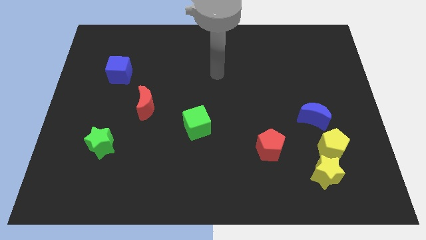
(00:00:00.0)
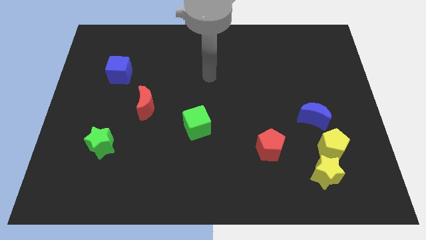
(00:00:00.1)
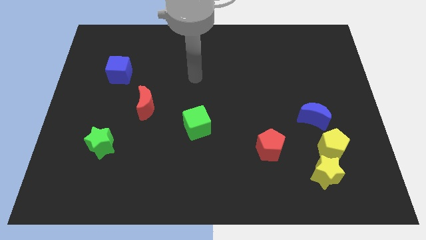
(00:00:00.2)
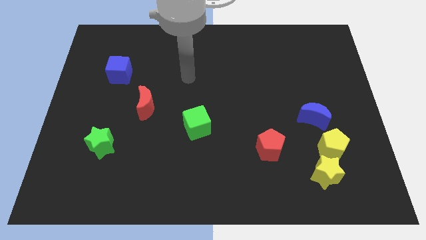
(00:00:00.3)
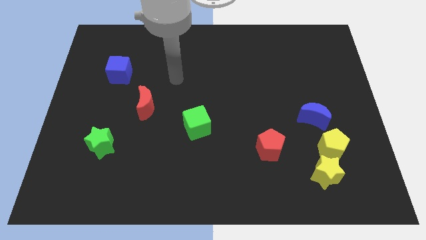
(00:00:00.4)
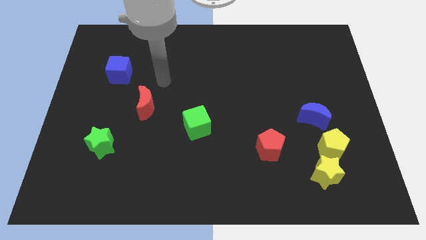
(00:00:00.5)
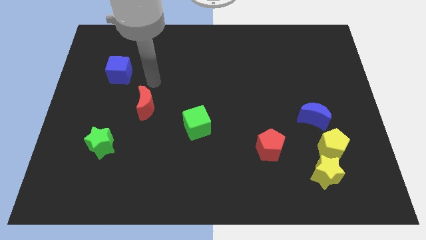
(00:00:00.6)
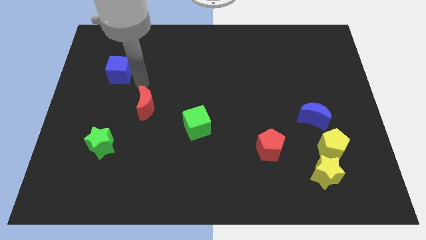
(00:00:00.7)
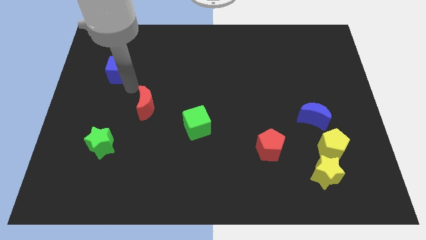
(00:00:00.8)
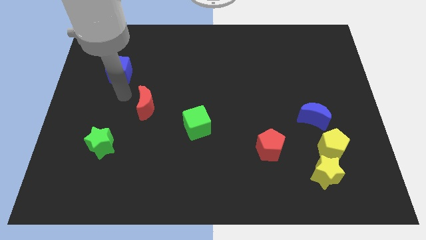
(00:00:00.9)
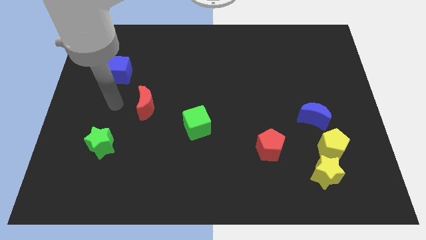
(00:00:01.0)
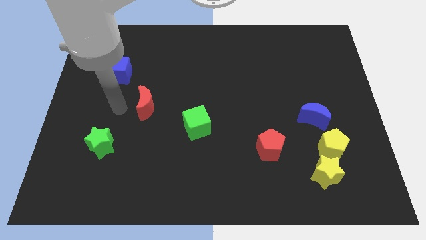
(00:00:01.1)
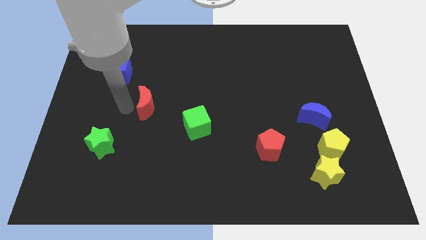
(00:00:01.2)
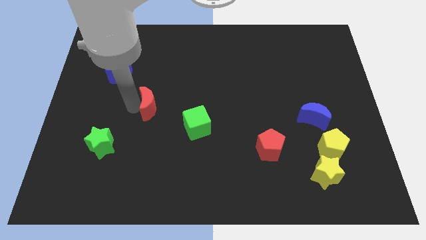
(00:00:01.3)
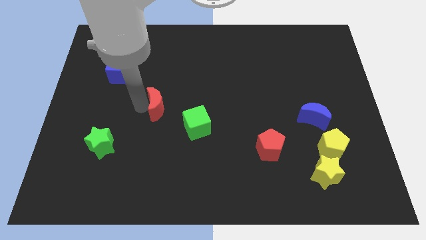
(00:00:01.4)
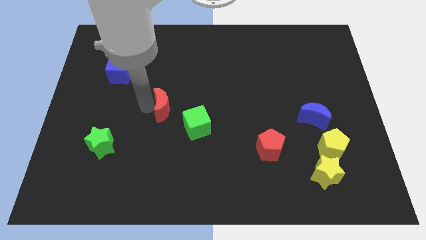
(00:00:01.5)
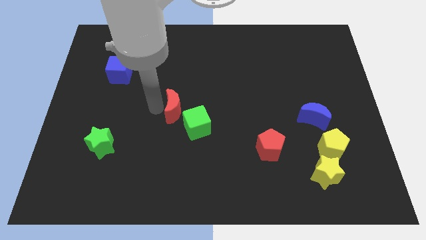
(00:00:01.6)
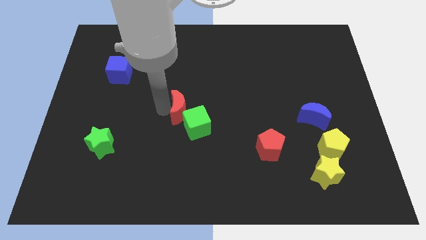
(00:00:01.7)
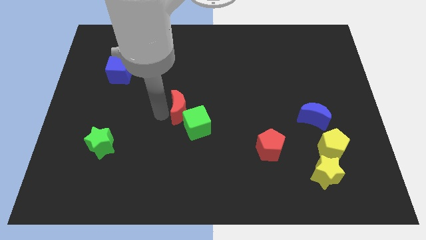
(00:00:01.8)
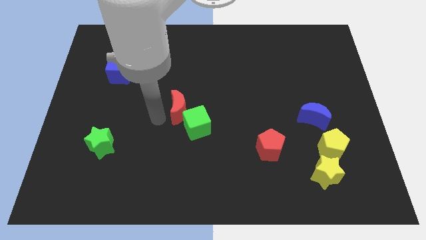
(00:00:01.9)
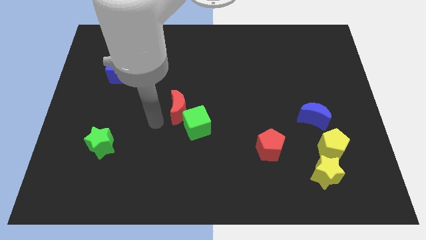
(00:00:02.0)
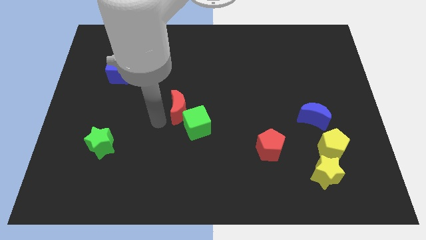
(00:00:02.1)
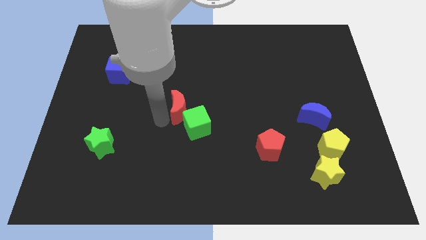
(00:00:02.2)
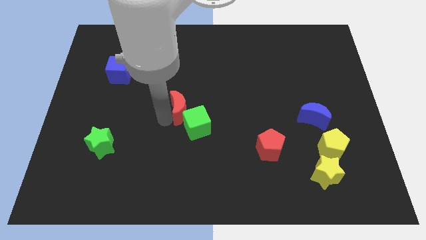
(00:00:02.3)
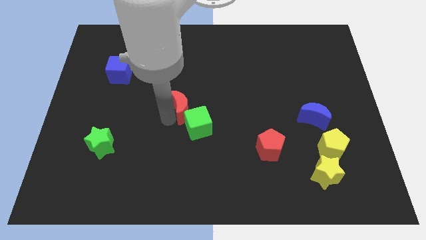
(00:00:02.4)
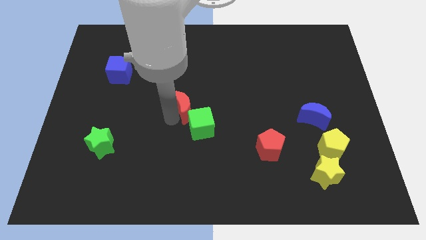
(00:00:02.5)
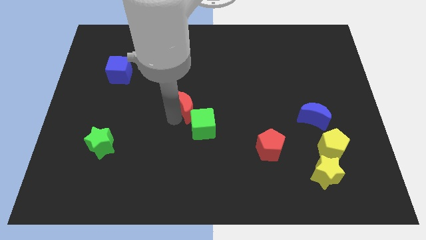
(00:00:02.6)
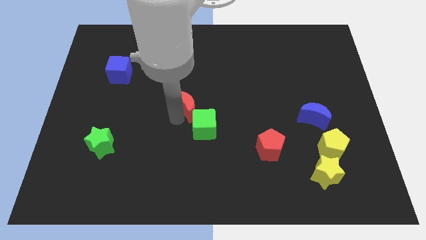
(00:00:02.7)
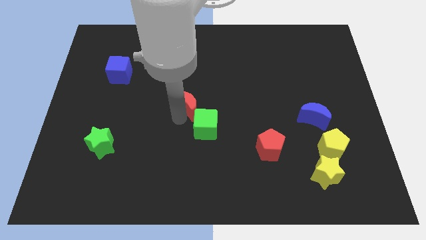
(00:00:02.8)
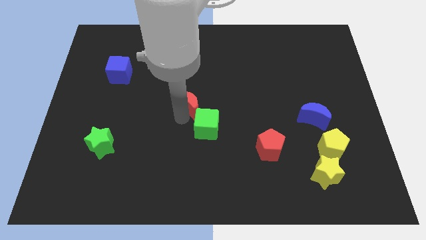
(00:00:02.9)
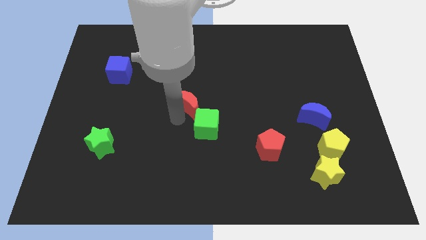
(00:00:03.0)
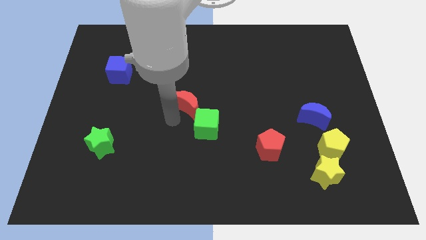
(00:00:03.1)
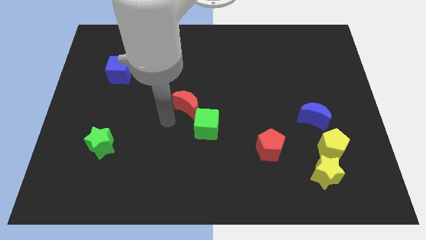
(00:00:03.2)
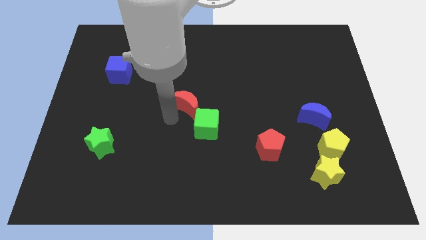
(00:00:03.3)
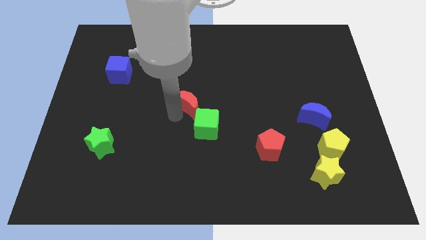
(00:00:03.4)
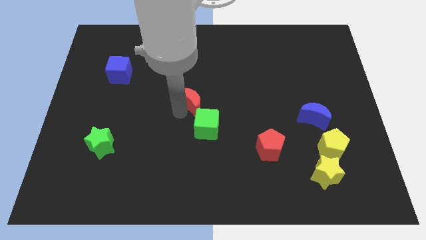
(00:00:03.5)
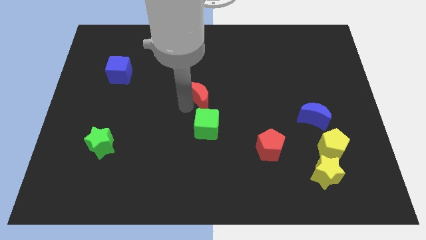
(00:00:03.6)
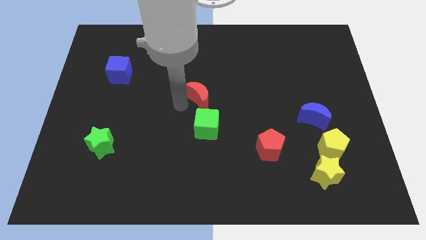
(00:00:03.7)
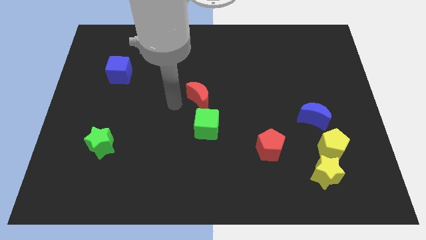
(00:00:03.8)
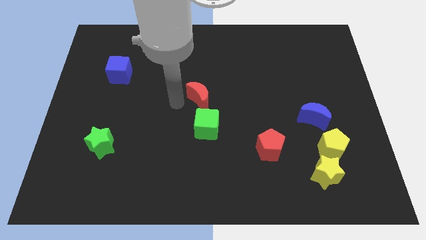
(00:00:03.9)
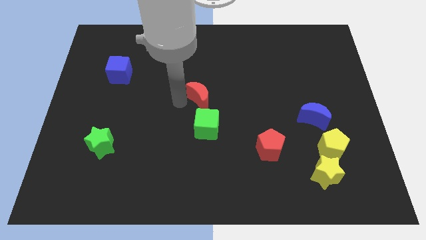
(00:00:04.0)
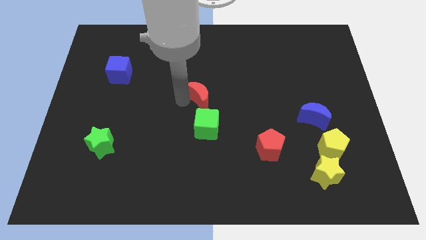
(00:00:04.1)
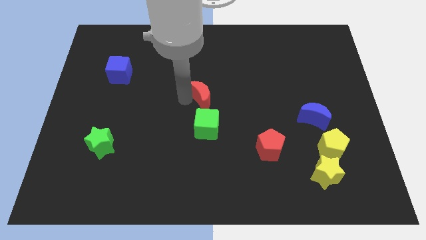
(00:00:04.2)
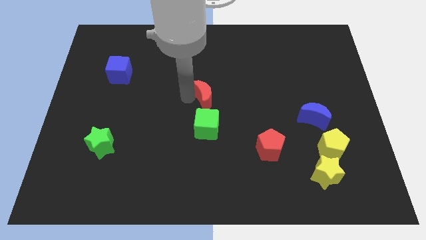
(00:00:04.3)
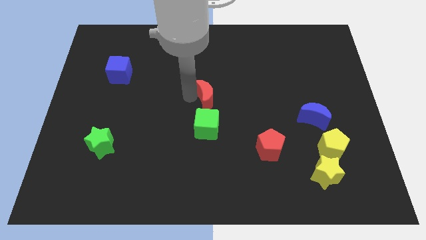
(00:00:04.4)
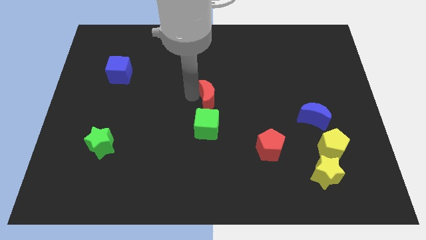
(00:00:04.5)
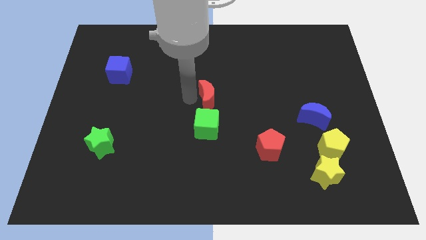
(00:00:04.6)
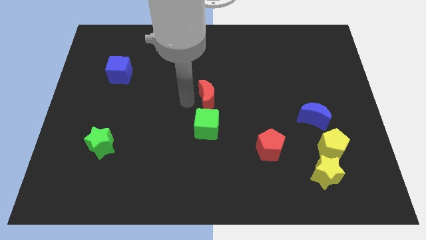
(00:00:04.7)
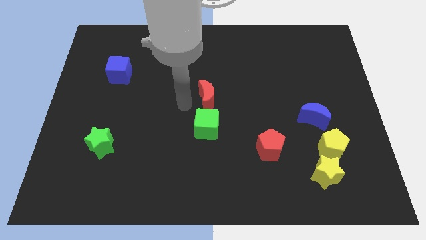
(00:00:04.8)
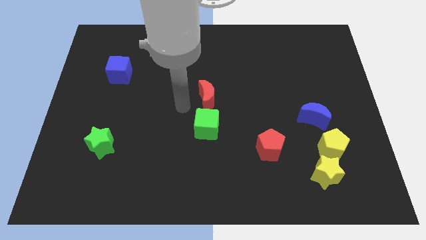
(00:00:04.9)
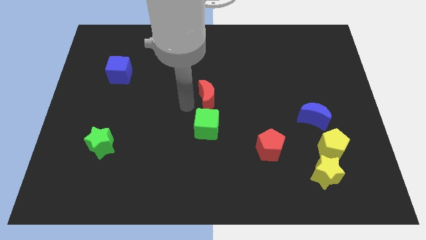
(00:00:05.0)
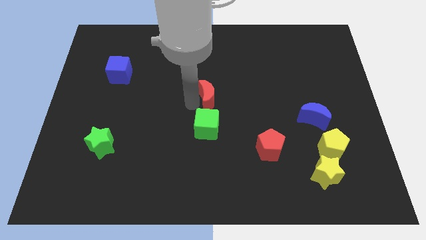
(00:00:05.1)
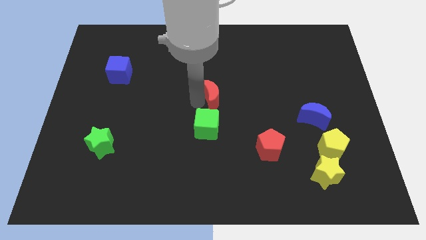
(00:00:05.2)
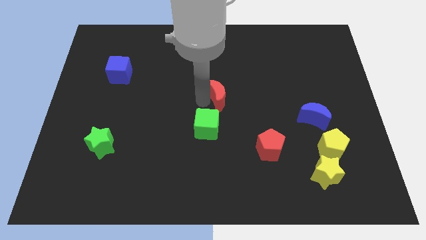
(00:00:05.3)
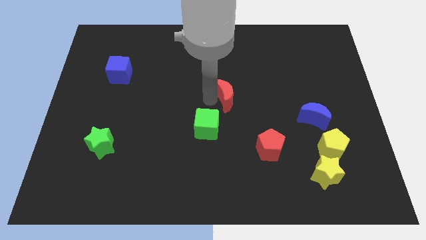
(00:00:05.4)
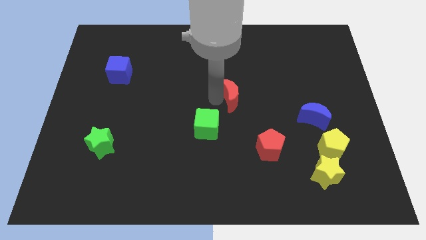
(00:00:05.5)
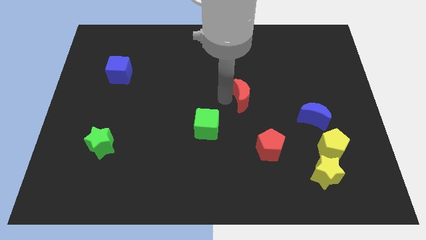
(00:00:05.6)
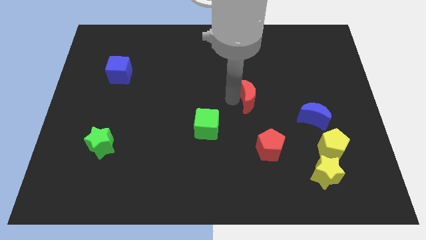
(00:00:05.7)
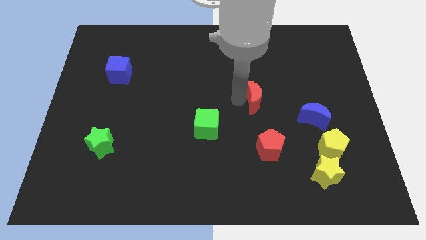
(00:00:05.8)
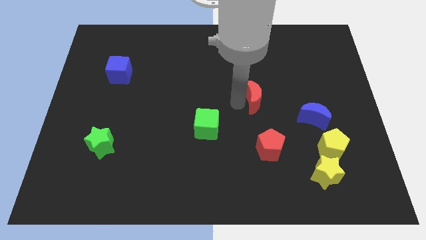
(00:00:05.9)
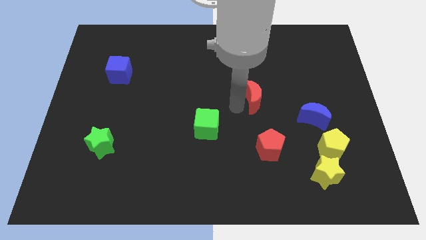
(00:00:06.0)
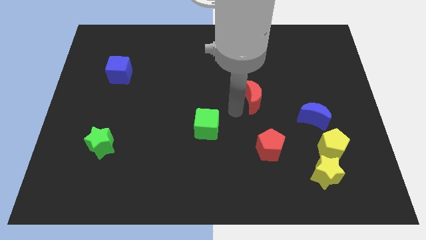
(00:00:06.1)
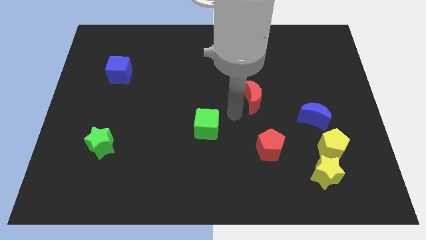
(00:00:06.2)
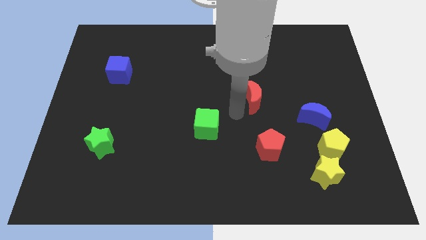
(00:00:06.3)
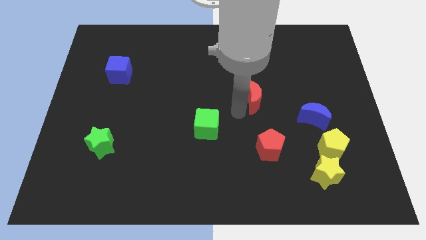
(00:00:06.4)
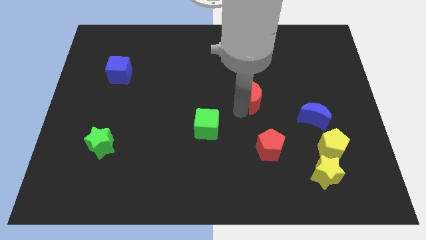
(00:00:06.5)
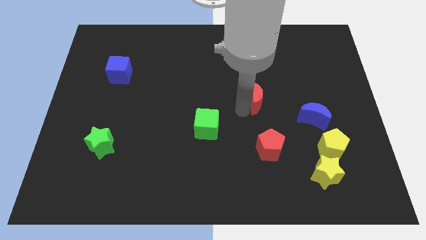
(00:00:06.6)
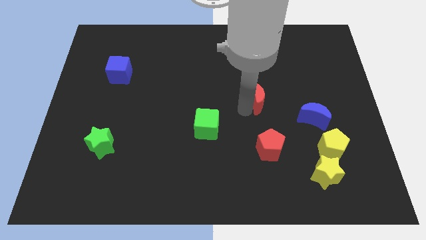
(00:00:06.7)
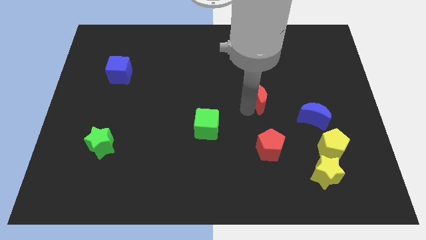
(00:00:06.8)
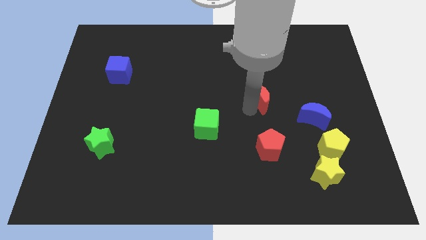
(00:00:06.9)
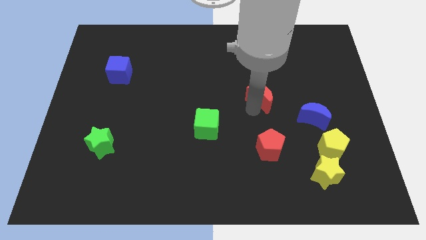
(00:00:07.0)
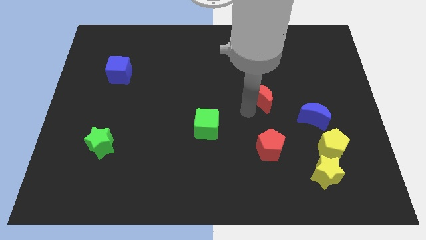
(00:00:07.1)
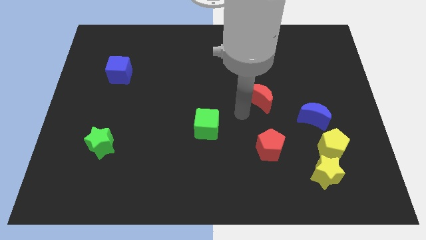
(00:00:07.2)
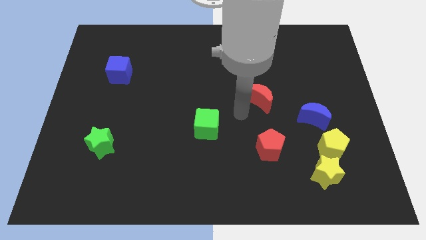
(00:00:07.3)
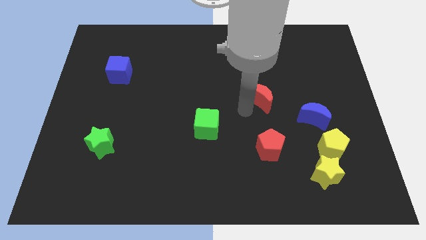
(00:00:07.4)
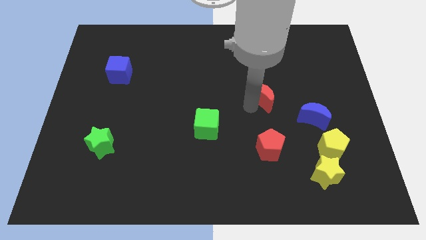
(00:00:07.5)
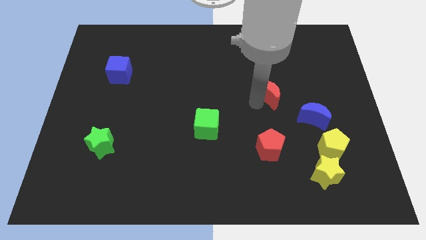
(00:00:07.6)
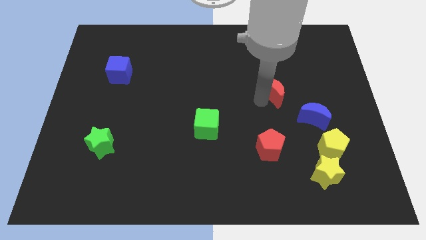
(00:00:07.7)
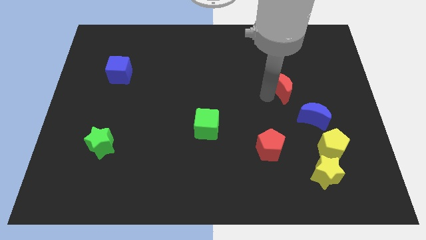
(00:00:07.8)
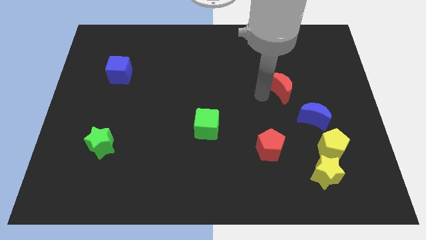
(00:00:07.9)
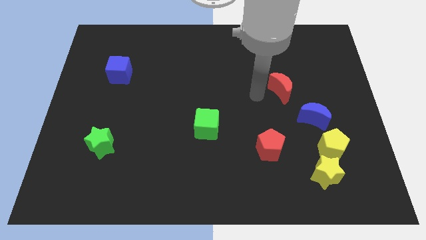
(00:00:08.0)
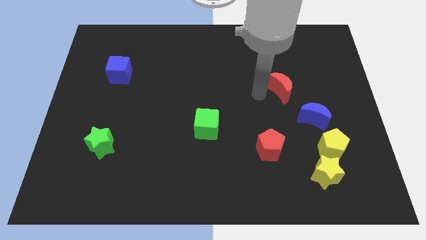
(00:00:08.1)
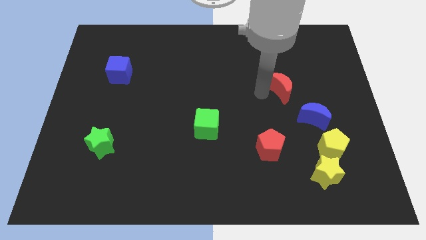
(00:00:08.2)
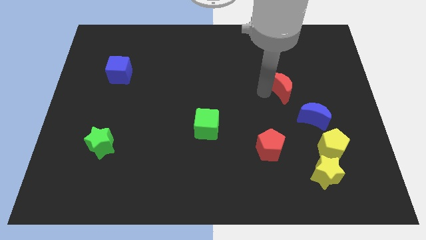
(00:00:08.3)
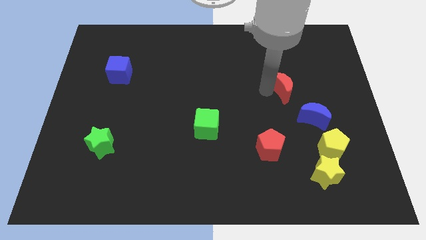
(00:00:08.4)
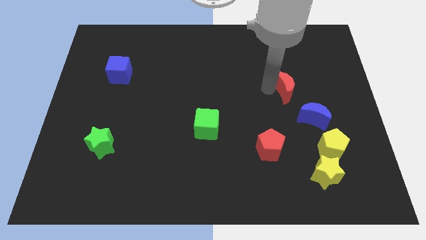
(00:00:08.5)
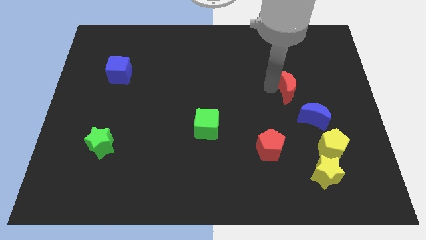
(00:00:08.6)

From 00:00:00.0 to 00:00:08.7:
push the red moon to the top side of the blue moon
